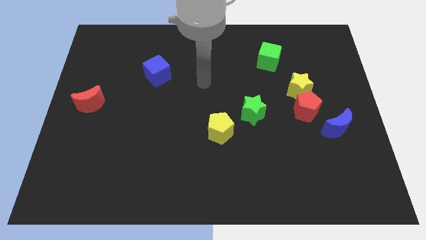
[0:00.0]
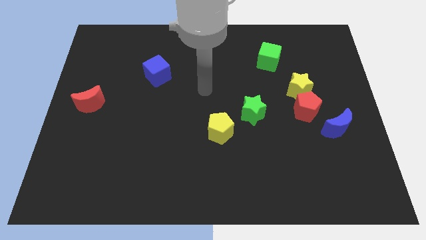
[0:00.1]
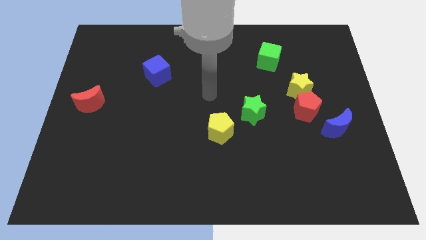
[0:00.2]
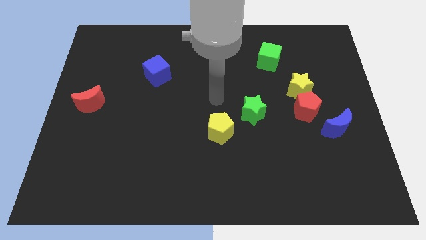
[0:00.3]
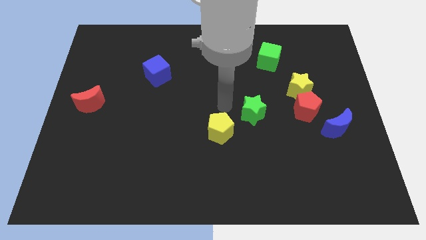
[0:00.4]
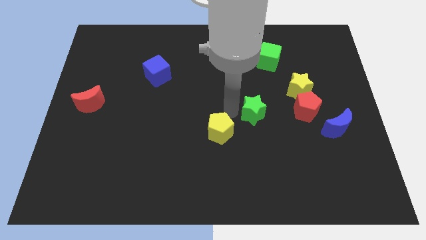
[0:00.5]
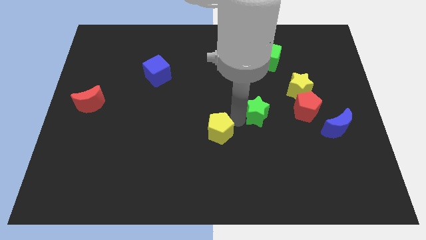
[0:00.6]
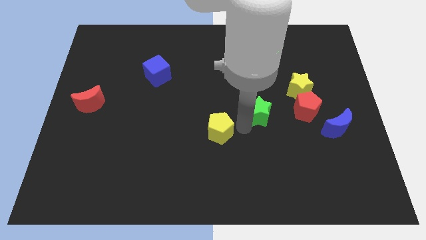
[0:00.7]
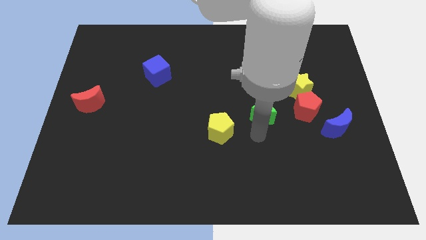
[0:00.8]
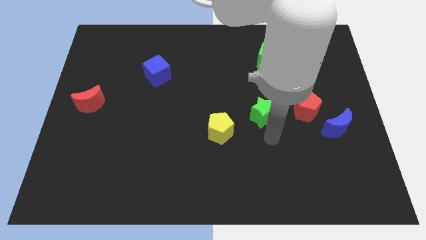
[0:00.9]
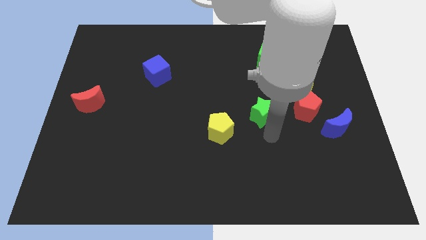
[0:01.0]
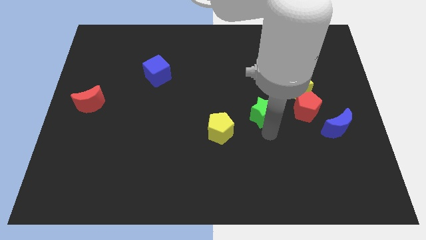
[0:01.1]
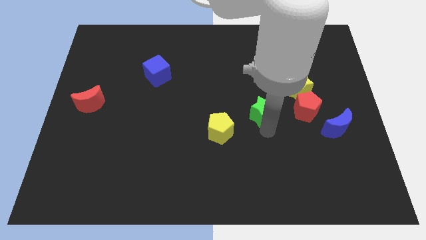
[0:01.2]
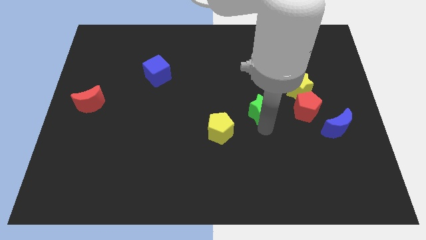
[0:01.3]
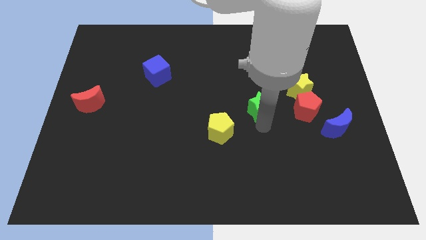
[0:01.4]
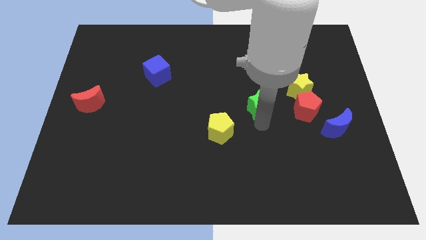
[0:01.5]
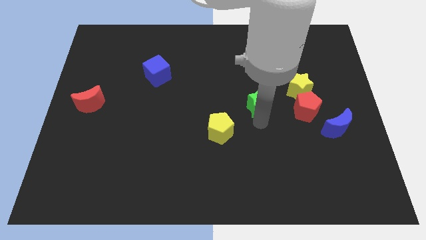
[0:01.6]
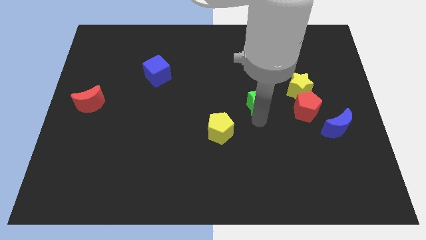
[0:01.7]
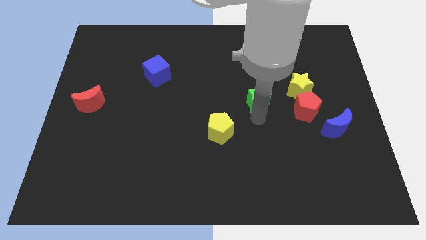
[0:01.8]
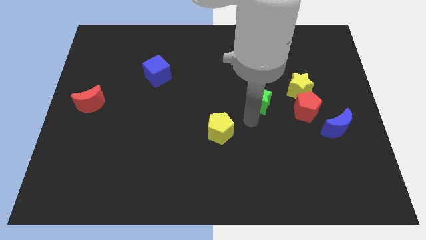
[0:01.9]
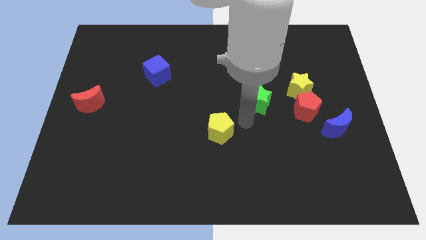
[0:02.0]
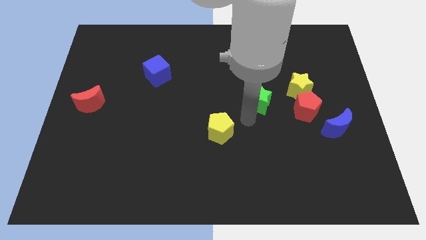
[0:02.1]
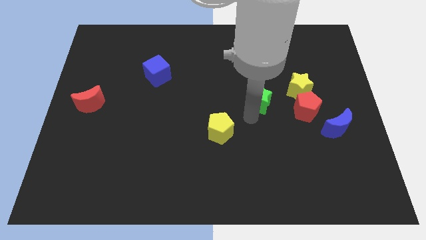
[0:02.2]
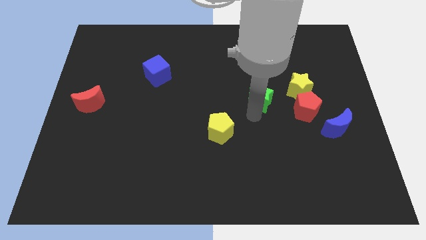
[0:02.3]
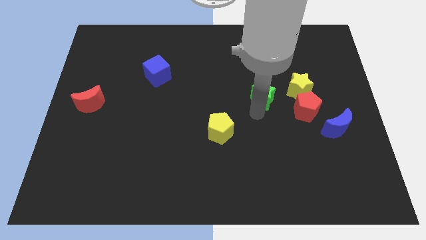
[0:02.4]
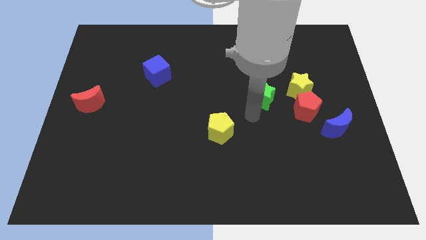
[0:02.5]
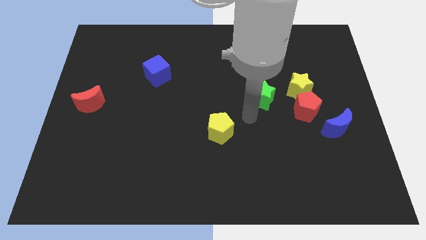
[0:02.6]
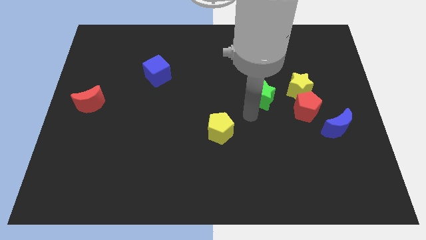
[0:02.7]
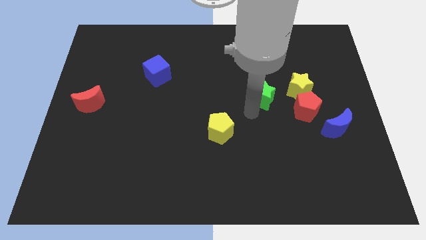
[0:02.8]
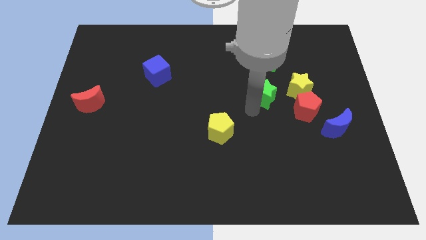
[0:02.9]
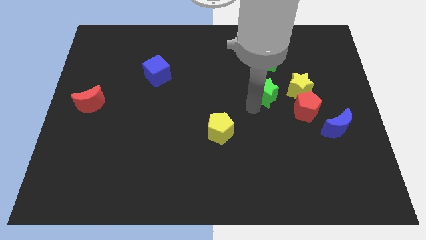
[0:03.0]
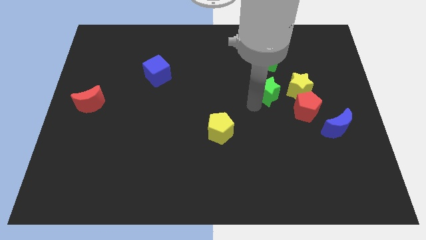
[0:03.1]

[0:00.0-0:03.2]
push the green star a little bit upwards and then to the right

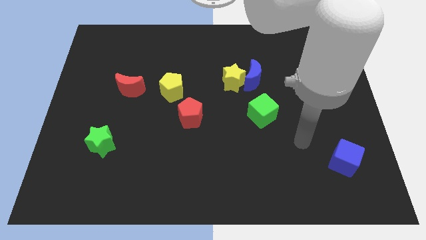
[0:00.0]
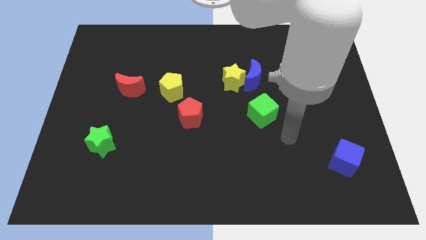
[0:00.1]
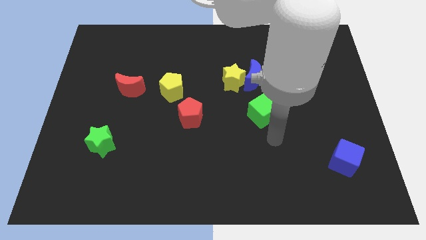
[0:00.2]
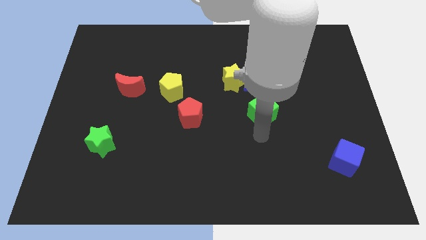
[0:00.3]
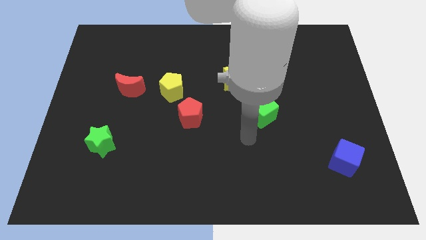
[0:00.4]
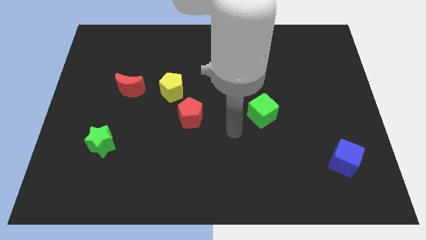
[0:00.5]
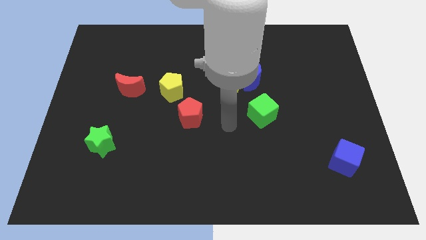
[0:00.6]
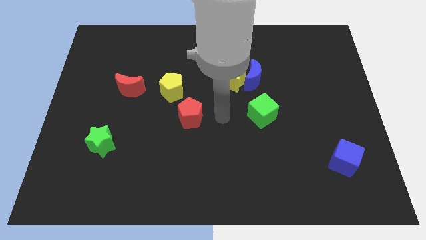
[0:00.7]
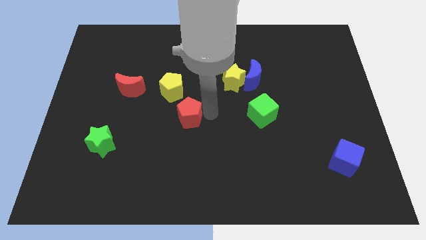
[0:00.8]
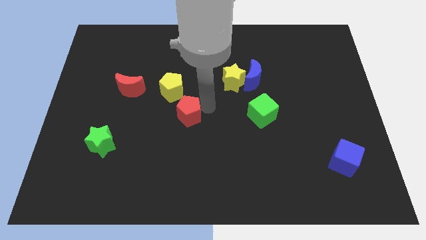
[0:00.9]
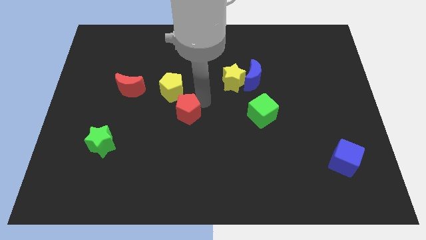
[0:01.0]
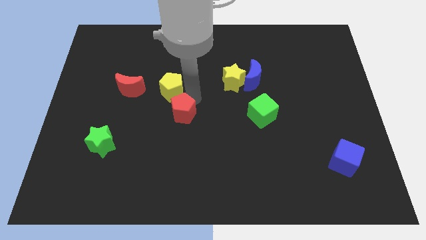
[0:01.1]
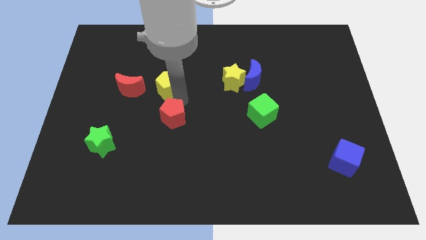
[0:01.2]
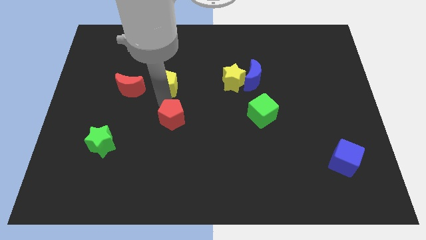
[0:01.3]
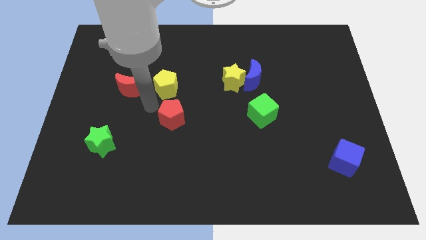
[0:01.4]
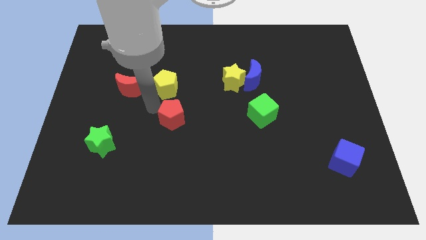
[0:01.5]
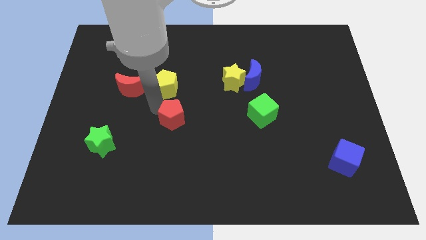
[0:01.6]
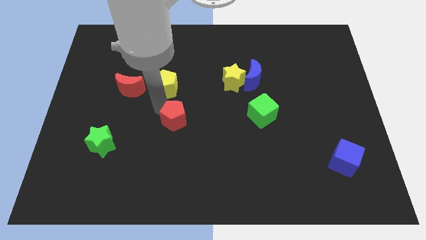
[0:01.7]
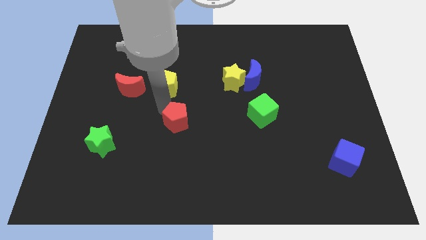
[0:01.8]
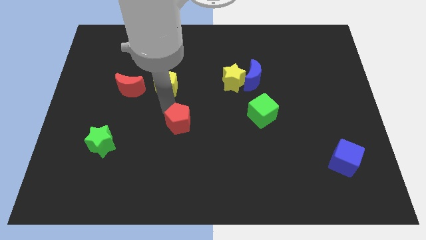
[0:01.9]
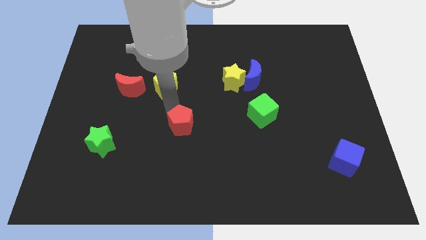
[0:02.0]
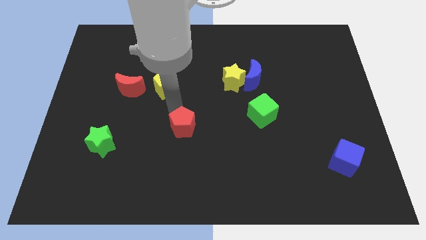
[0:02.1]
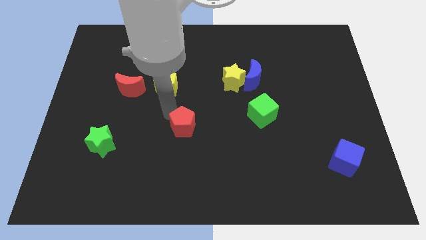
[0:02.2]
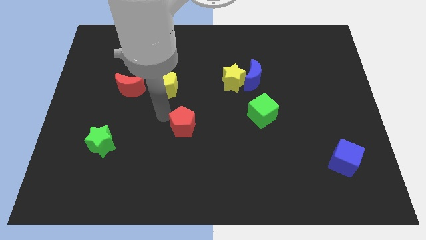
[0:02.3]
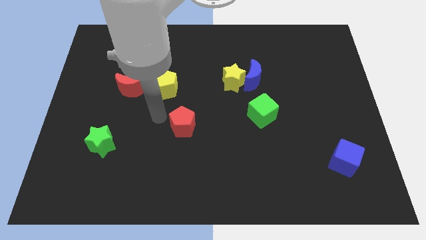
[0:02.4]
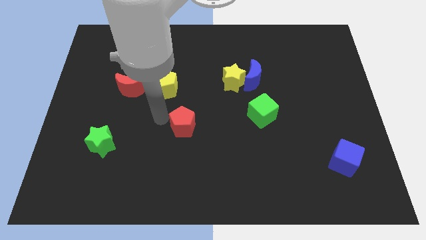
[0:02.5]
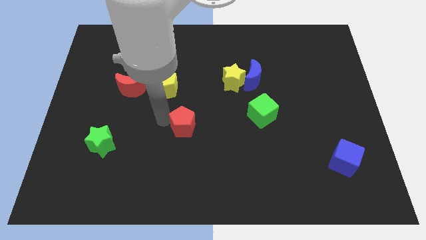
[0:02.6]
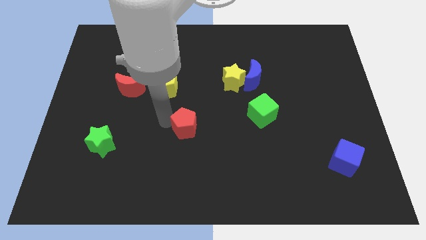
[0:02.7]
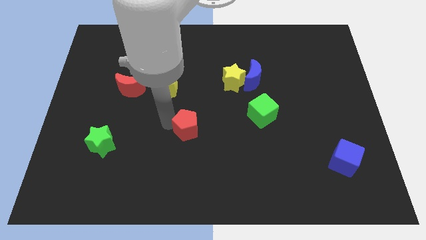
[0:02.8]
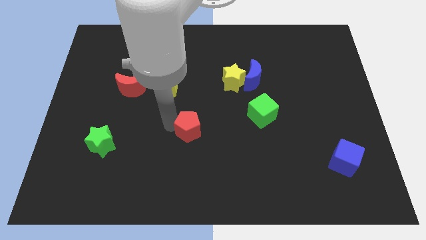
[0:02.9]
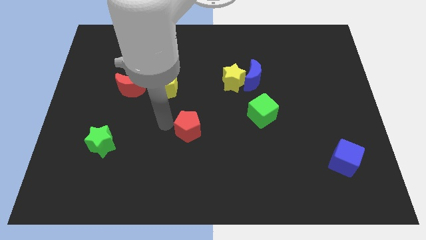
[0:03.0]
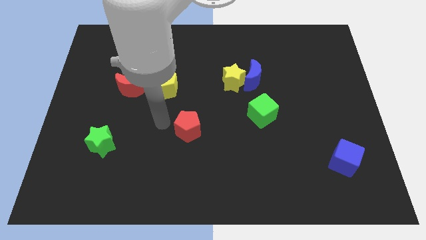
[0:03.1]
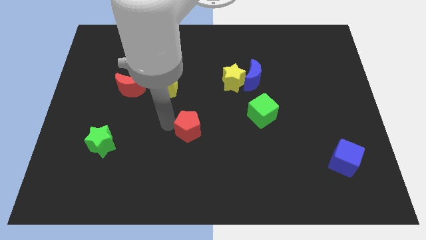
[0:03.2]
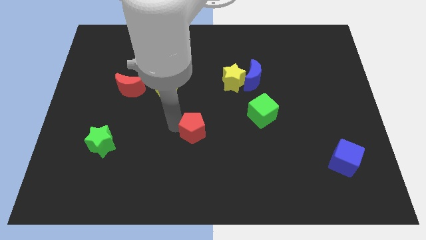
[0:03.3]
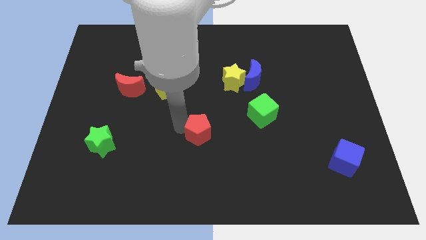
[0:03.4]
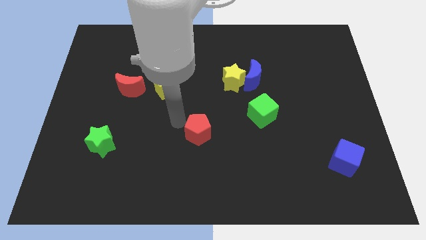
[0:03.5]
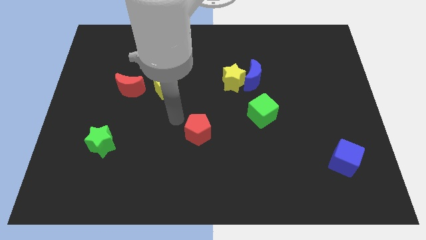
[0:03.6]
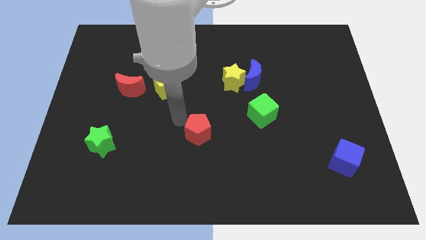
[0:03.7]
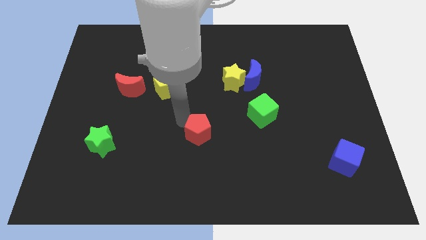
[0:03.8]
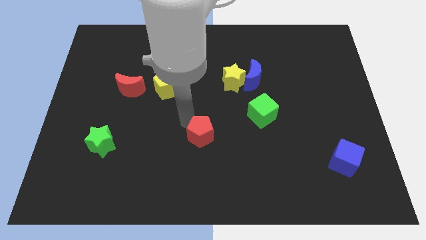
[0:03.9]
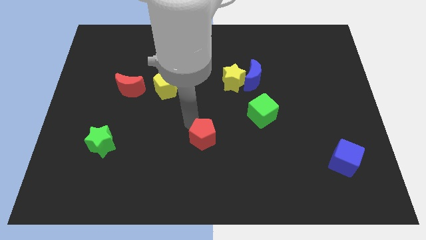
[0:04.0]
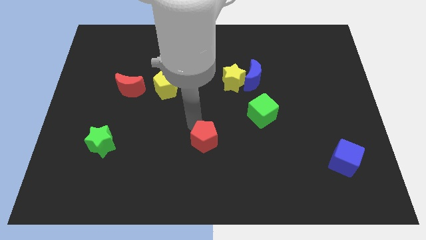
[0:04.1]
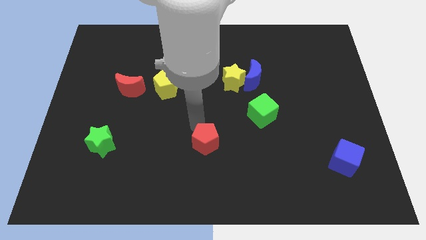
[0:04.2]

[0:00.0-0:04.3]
slide the red pentagon slightly diagonally downwards and right

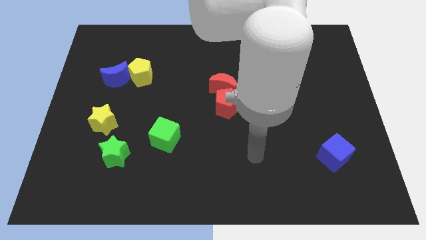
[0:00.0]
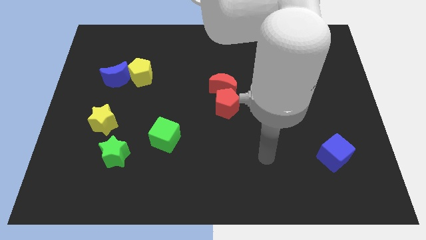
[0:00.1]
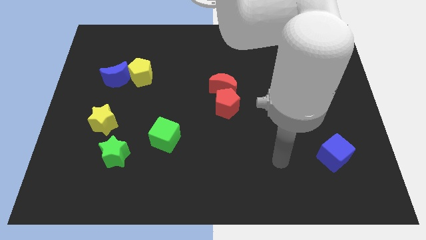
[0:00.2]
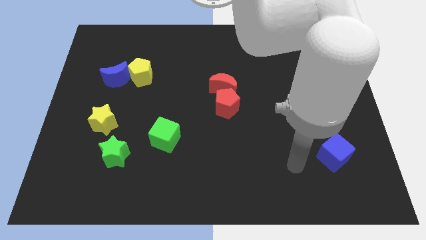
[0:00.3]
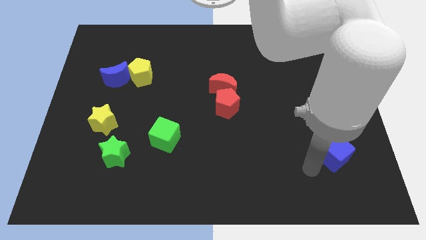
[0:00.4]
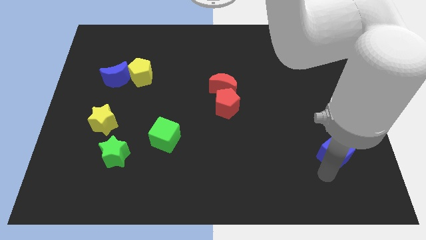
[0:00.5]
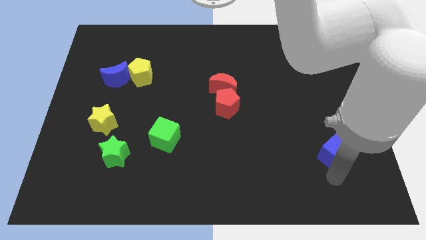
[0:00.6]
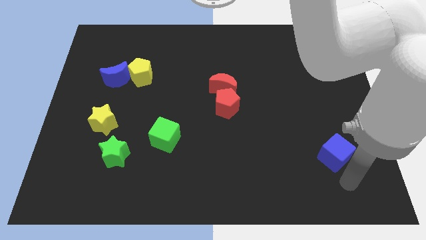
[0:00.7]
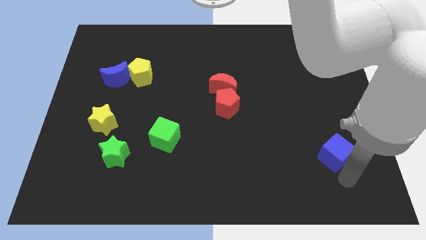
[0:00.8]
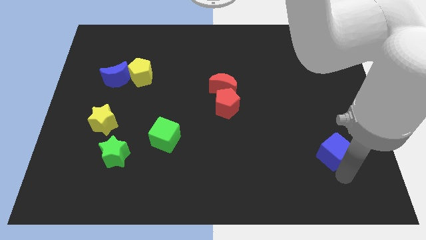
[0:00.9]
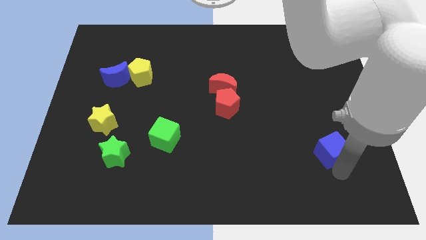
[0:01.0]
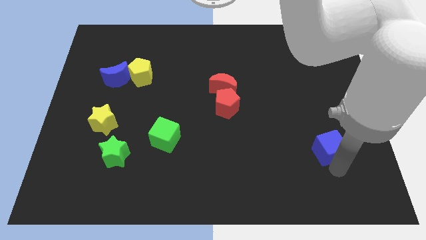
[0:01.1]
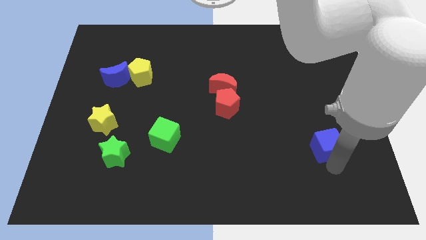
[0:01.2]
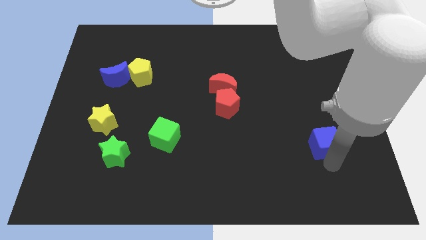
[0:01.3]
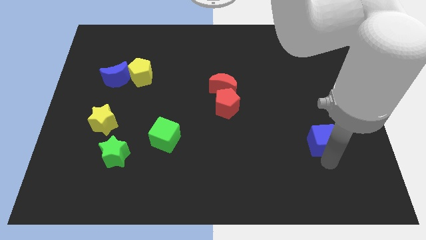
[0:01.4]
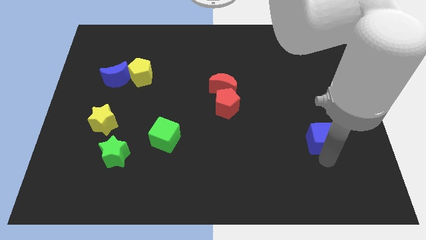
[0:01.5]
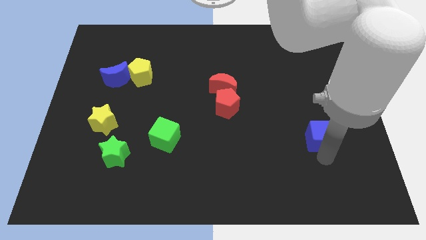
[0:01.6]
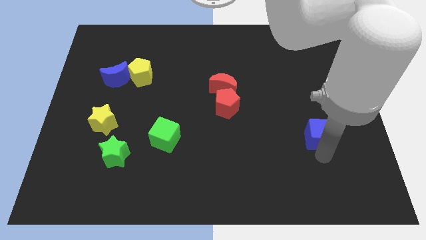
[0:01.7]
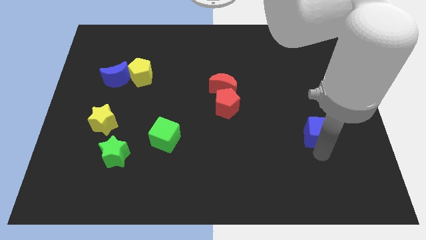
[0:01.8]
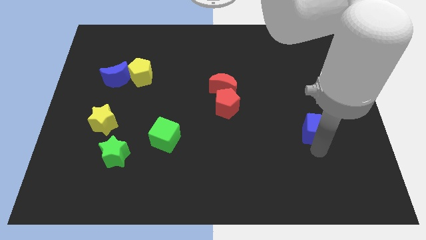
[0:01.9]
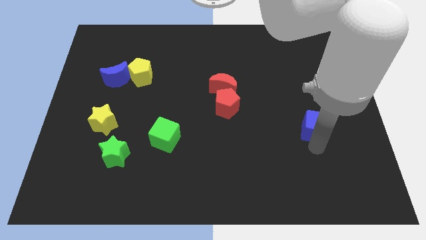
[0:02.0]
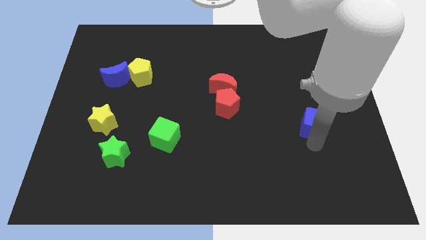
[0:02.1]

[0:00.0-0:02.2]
slightly push the blue cube up
